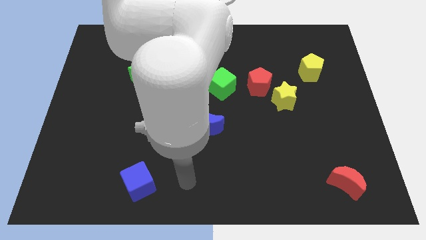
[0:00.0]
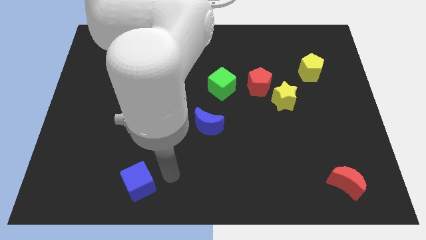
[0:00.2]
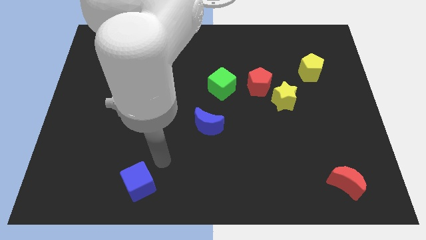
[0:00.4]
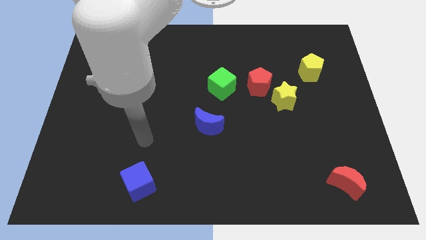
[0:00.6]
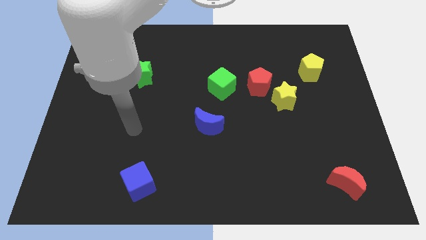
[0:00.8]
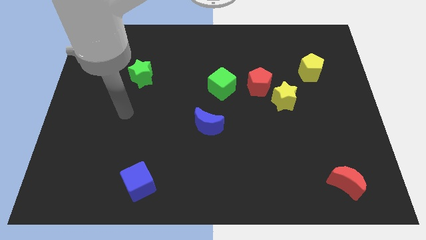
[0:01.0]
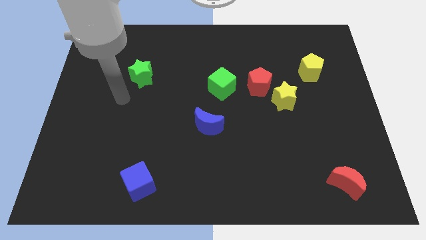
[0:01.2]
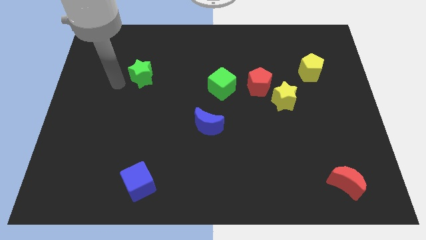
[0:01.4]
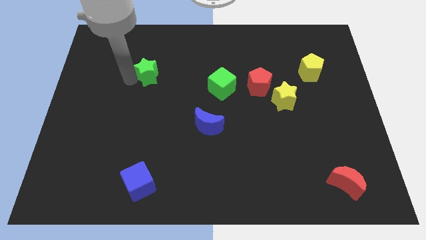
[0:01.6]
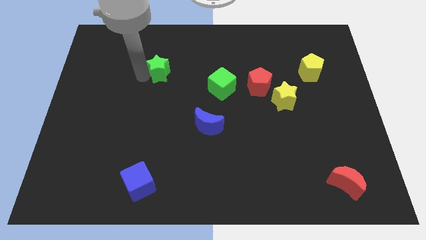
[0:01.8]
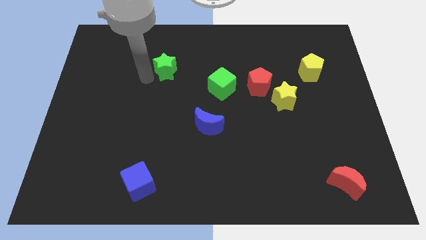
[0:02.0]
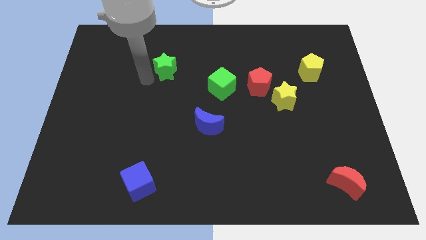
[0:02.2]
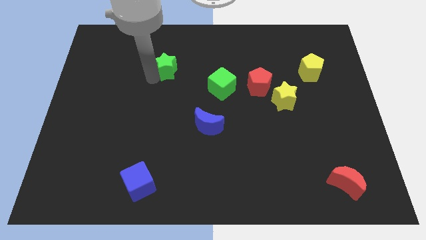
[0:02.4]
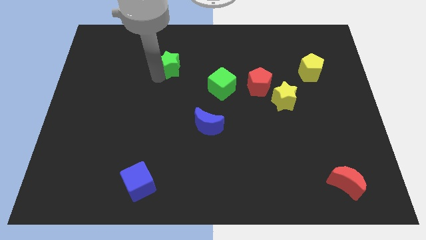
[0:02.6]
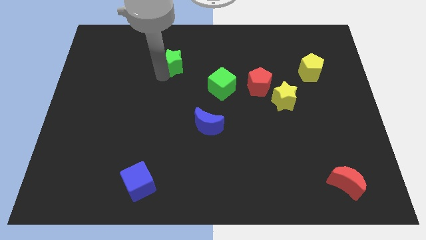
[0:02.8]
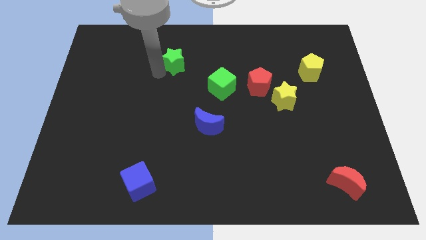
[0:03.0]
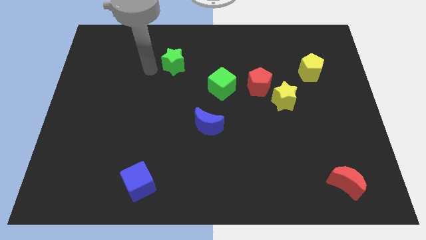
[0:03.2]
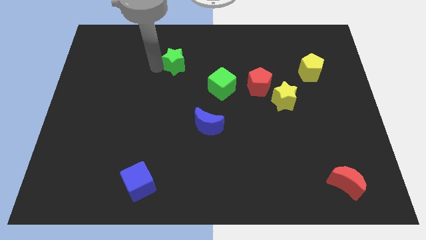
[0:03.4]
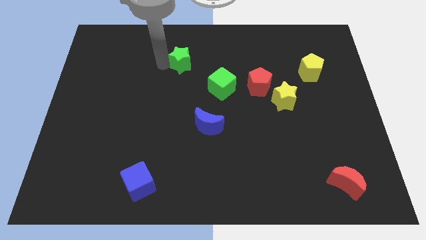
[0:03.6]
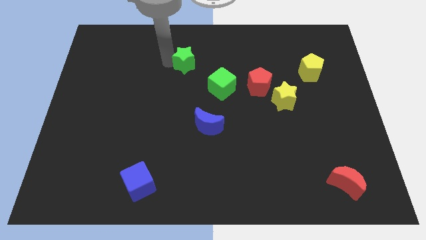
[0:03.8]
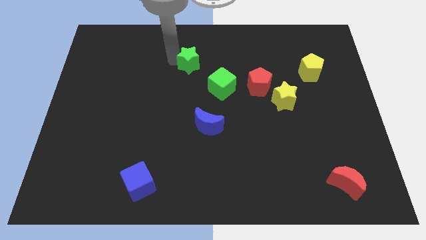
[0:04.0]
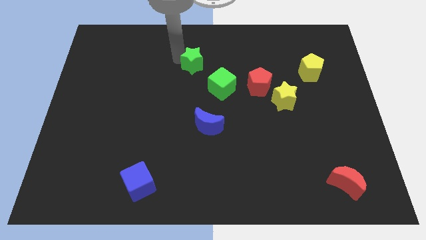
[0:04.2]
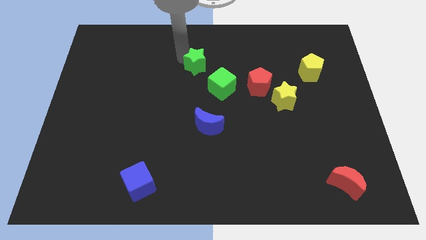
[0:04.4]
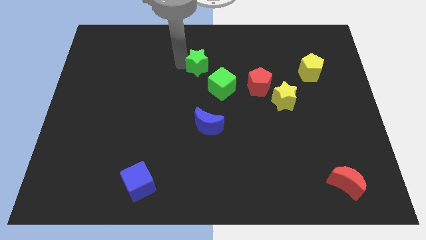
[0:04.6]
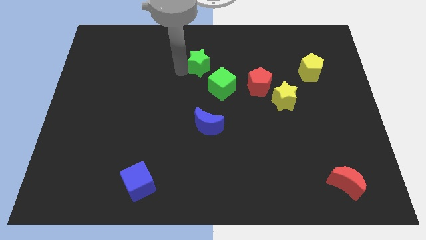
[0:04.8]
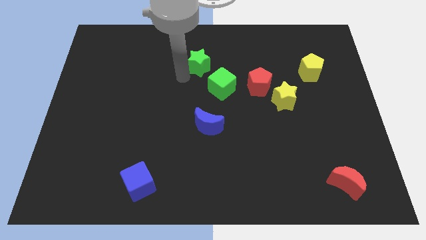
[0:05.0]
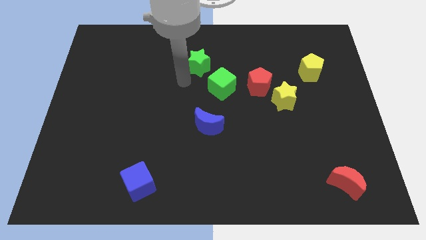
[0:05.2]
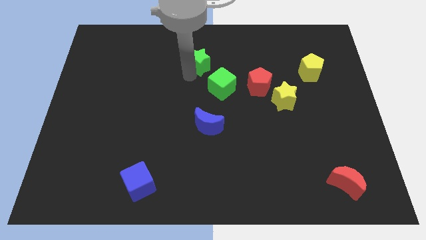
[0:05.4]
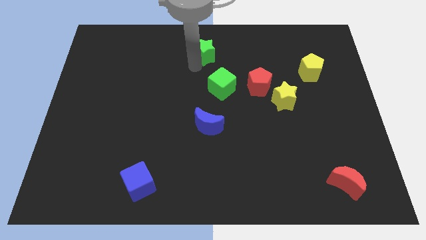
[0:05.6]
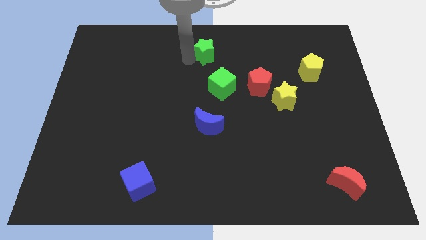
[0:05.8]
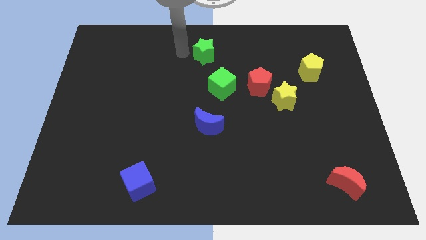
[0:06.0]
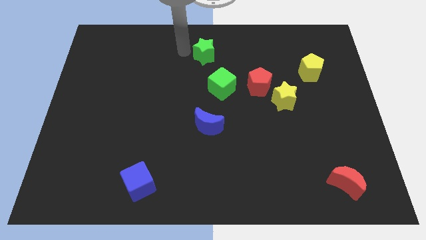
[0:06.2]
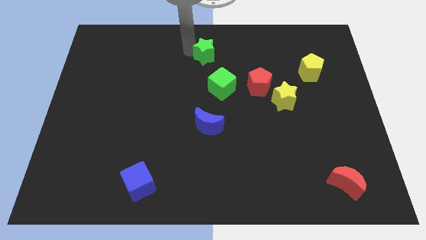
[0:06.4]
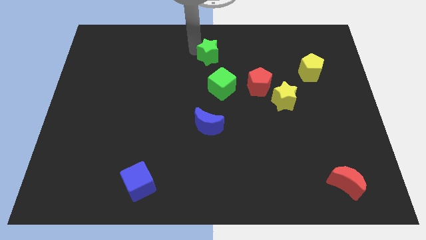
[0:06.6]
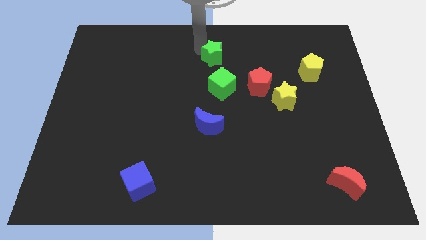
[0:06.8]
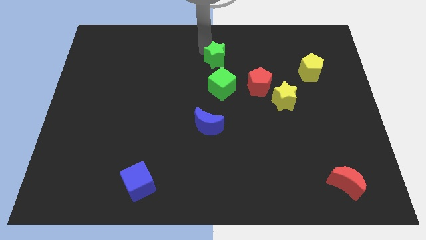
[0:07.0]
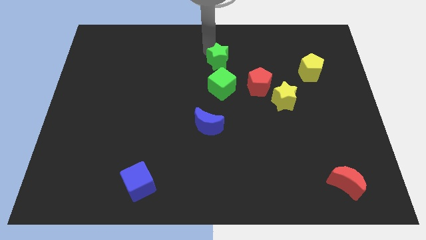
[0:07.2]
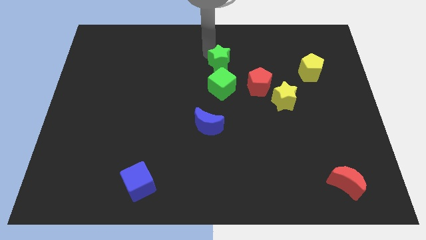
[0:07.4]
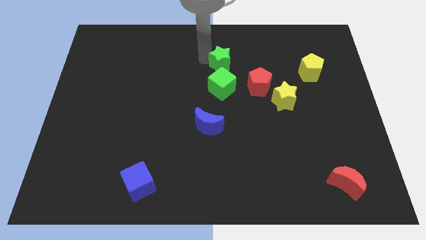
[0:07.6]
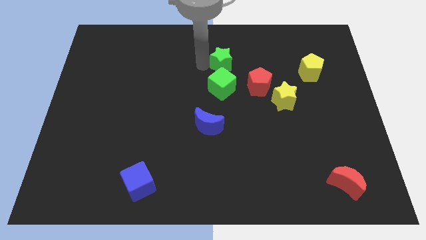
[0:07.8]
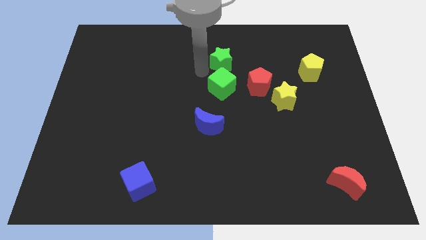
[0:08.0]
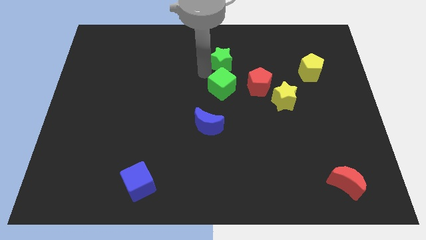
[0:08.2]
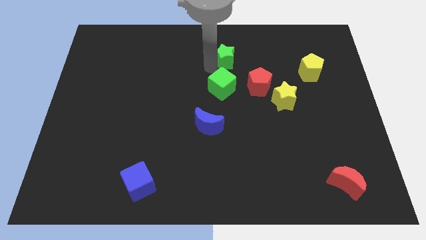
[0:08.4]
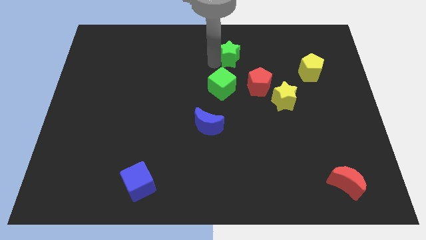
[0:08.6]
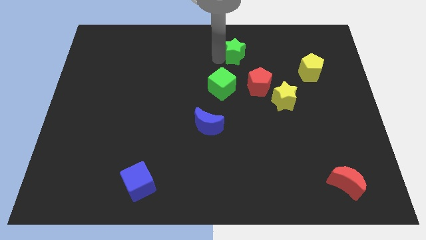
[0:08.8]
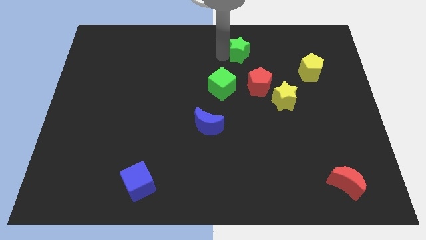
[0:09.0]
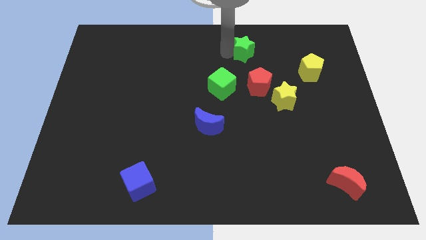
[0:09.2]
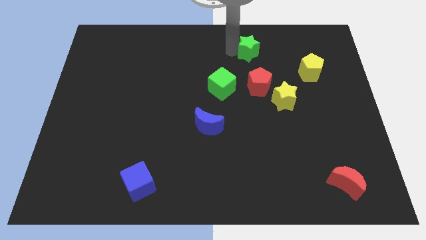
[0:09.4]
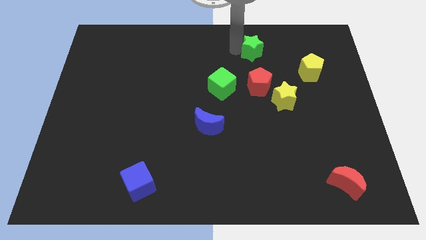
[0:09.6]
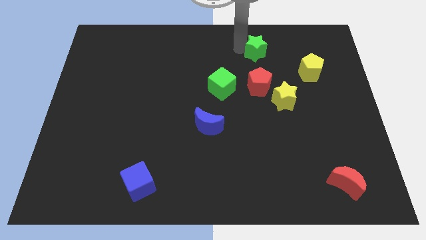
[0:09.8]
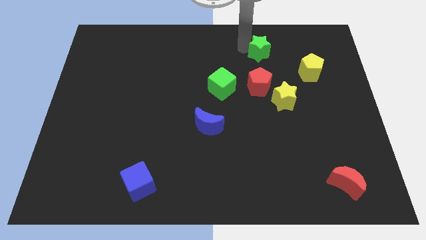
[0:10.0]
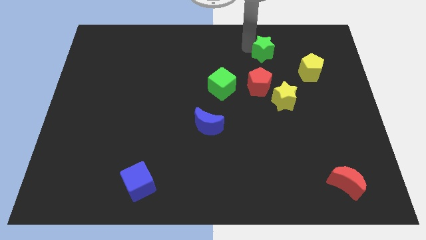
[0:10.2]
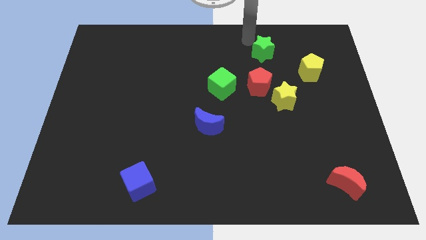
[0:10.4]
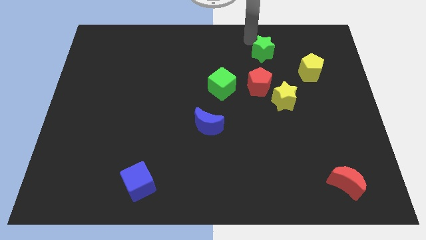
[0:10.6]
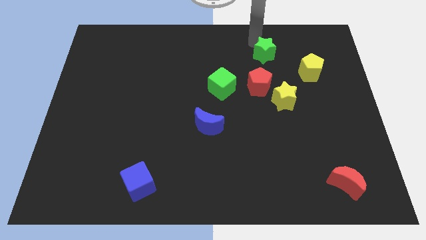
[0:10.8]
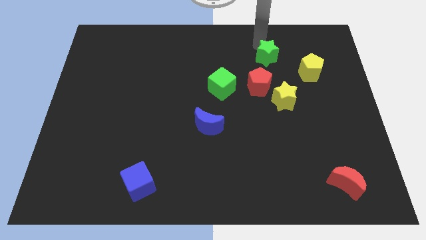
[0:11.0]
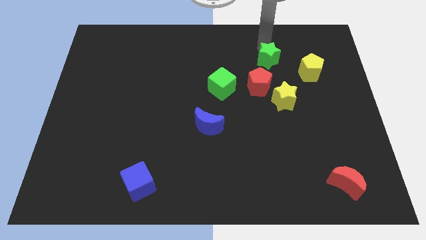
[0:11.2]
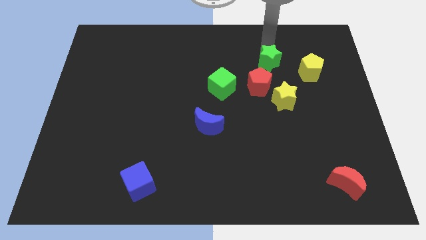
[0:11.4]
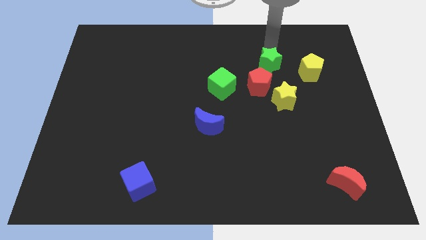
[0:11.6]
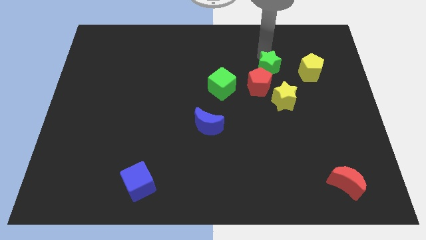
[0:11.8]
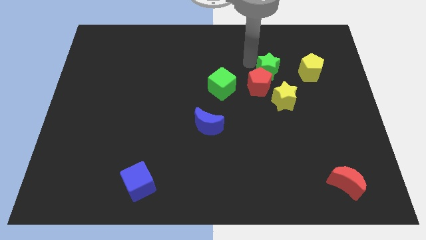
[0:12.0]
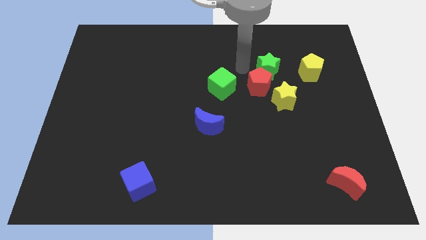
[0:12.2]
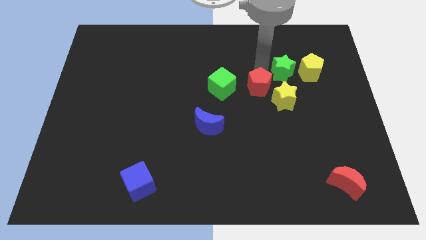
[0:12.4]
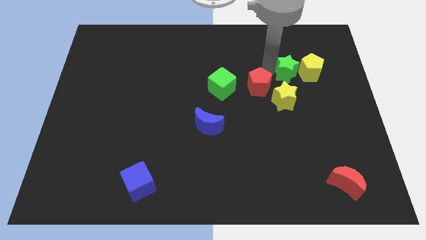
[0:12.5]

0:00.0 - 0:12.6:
slide the green star to the yellow pentagon

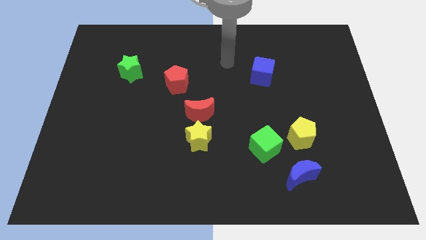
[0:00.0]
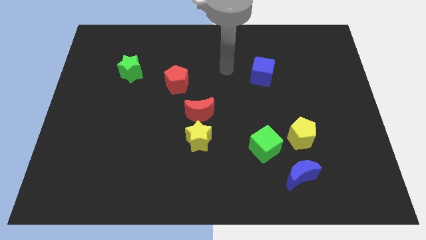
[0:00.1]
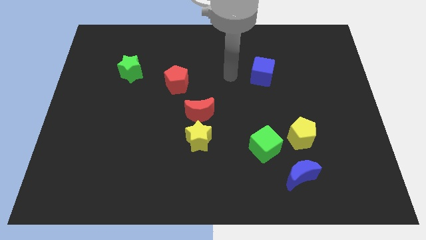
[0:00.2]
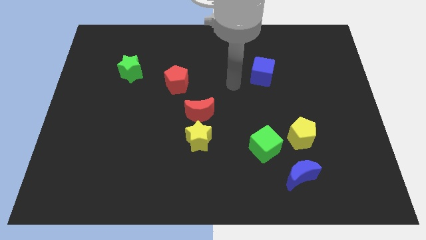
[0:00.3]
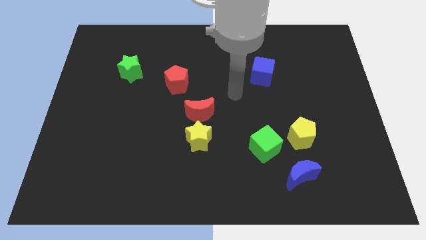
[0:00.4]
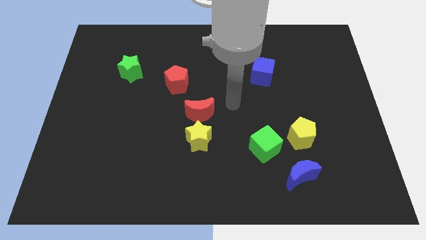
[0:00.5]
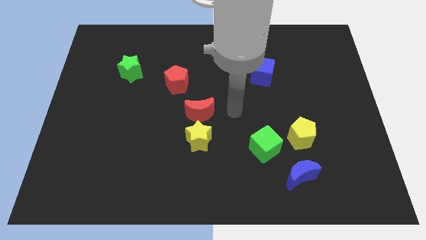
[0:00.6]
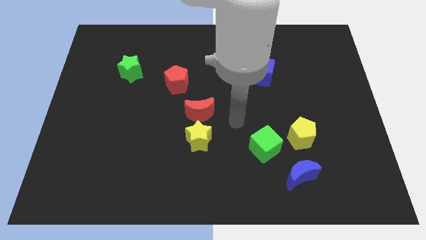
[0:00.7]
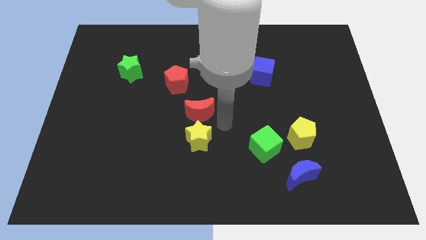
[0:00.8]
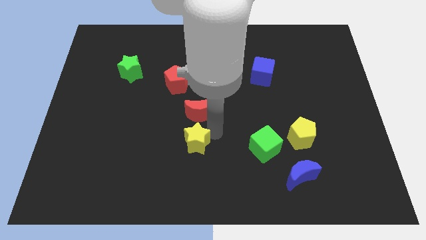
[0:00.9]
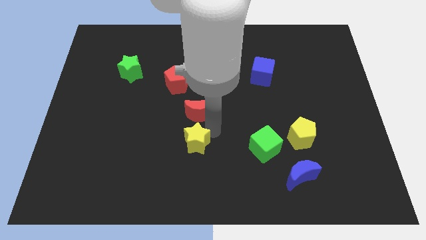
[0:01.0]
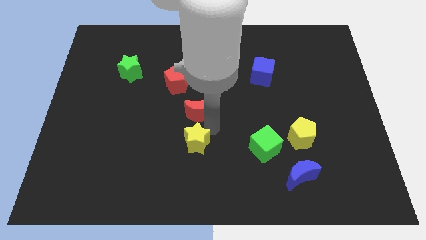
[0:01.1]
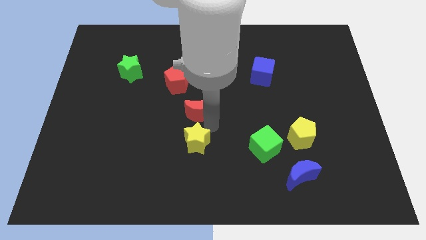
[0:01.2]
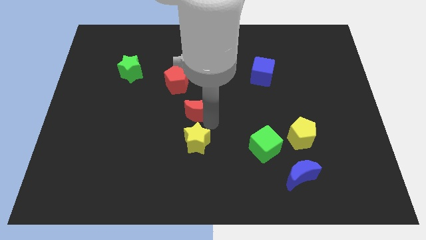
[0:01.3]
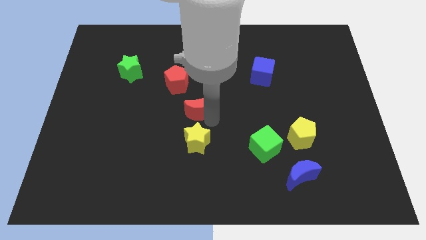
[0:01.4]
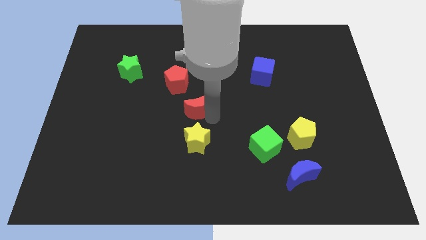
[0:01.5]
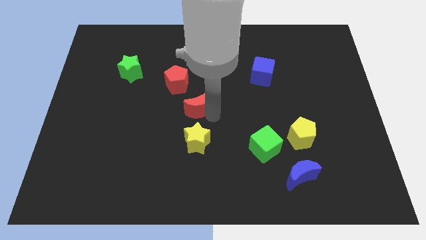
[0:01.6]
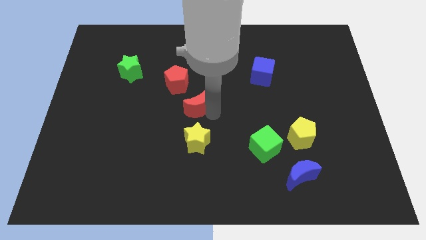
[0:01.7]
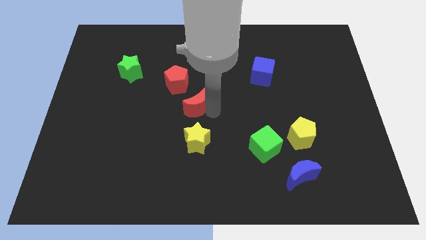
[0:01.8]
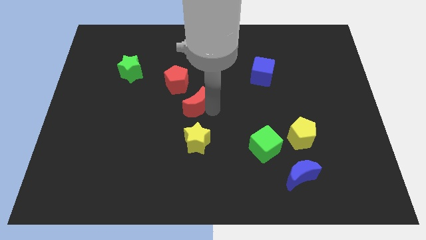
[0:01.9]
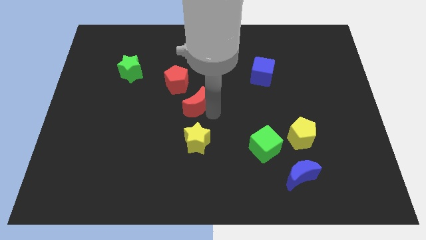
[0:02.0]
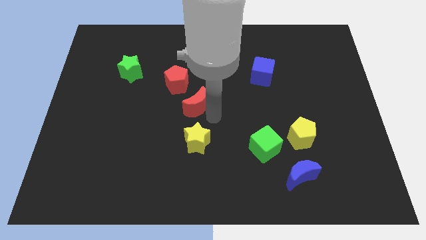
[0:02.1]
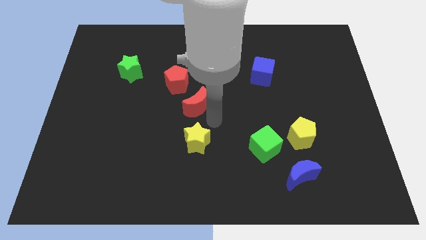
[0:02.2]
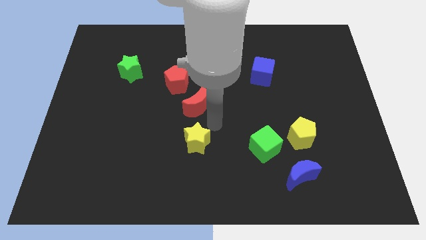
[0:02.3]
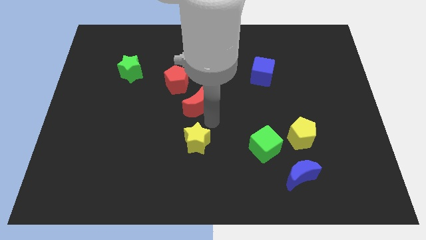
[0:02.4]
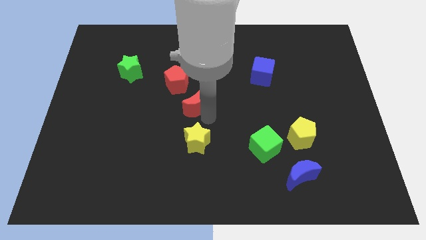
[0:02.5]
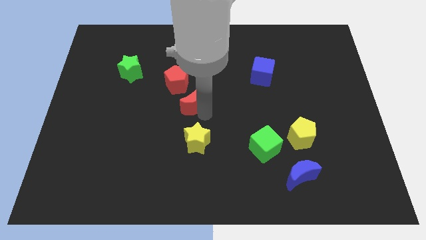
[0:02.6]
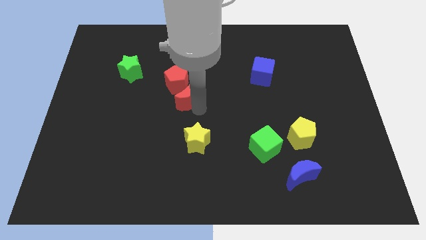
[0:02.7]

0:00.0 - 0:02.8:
slide the red moon next to the red pentagon
